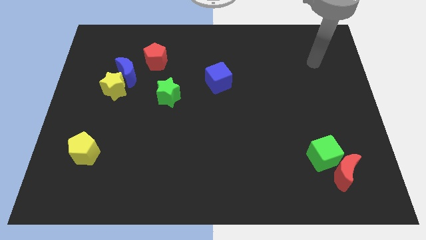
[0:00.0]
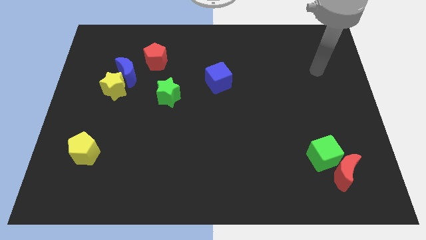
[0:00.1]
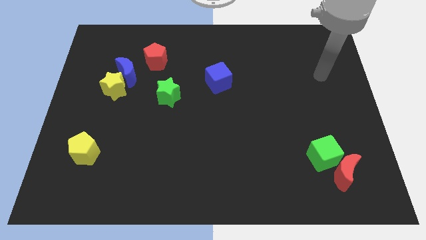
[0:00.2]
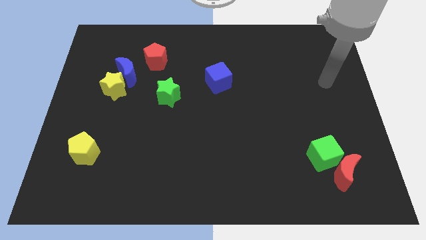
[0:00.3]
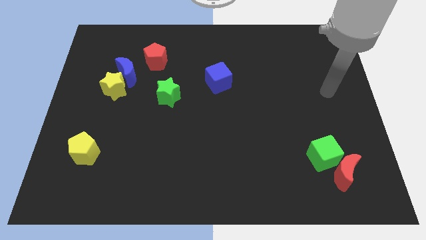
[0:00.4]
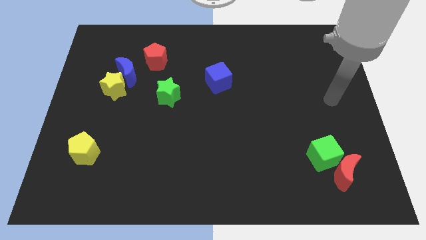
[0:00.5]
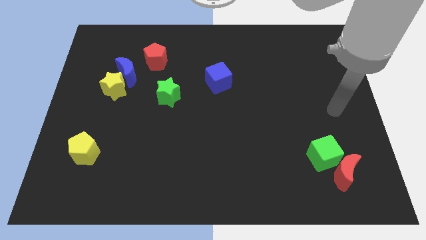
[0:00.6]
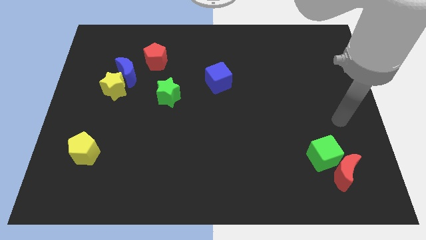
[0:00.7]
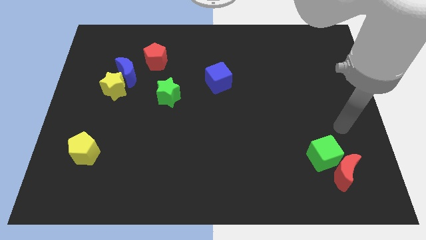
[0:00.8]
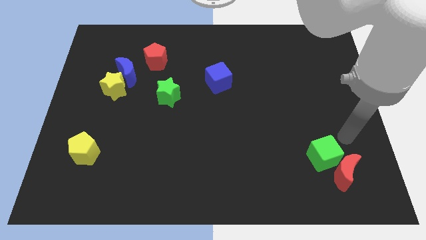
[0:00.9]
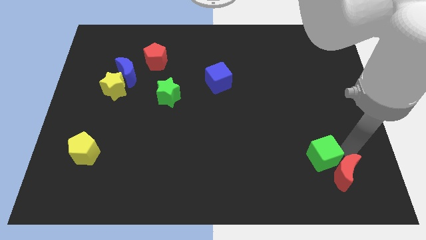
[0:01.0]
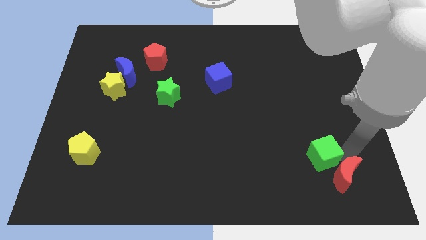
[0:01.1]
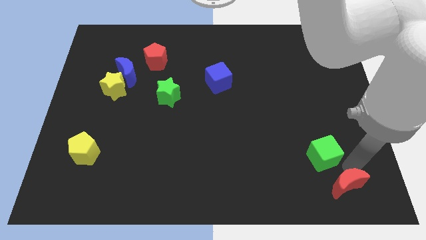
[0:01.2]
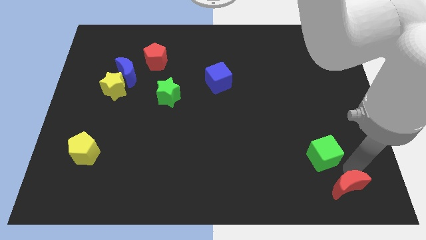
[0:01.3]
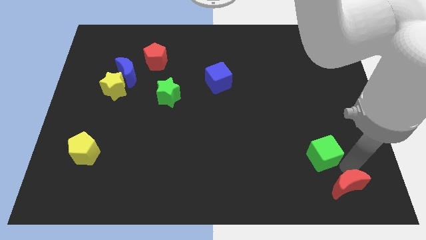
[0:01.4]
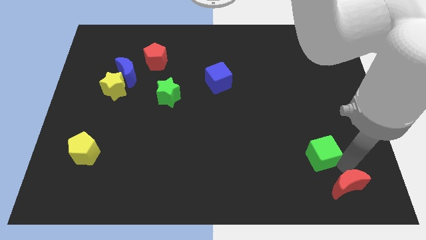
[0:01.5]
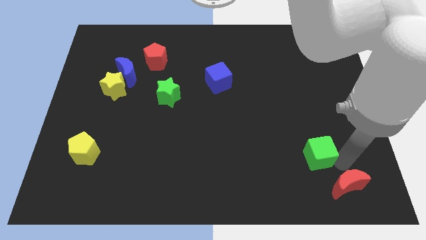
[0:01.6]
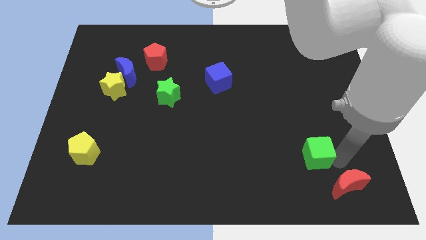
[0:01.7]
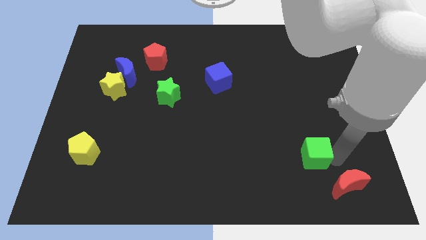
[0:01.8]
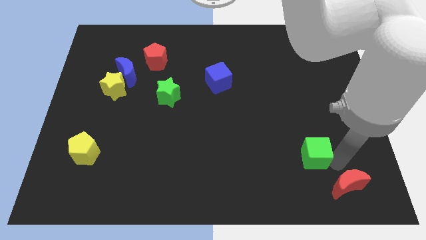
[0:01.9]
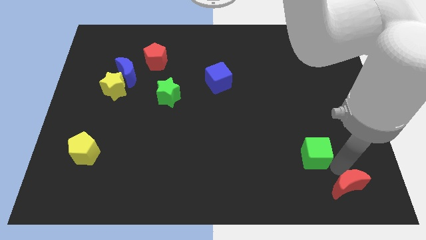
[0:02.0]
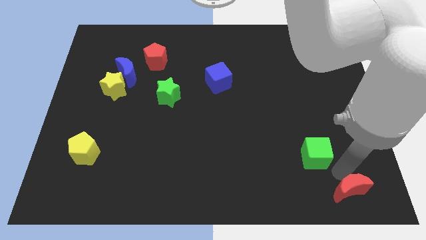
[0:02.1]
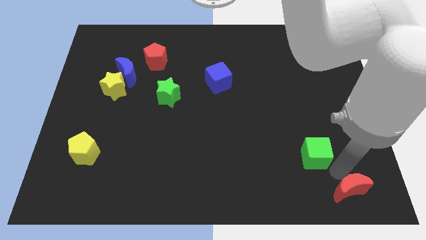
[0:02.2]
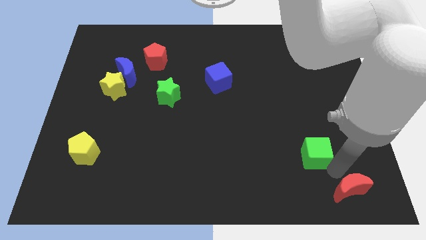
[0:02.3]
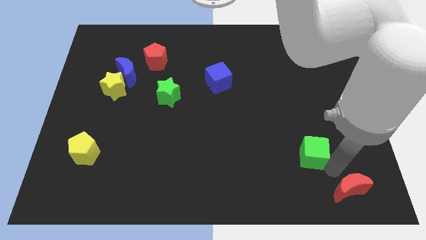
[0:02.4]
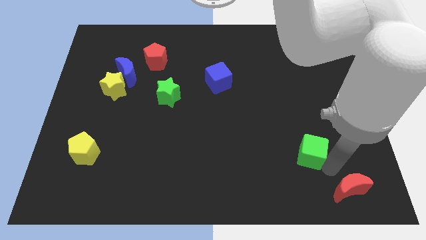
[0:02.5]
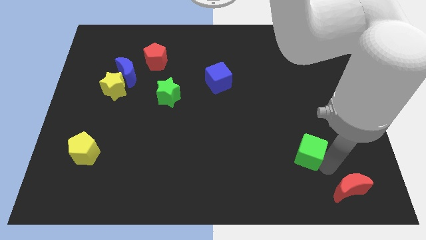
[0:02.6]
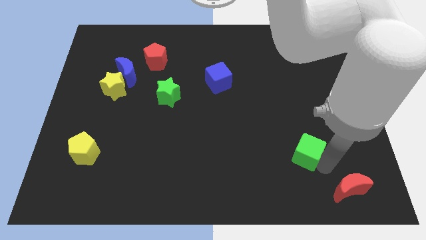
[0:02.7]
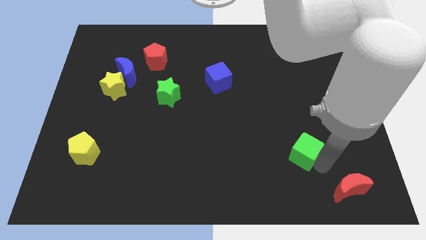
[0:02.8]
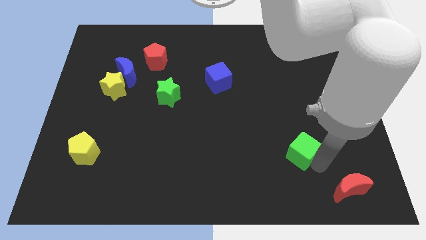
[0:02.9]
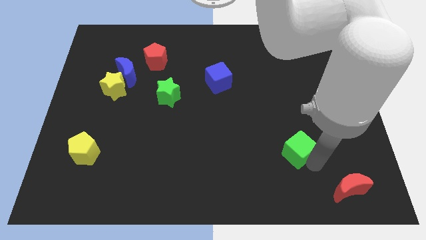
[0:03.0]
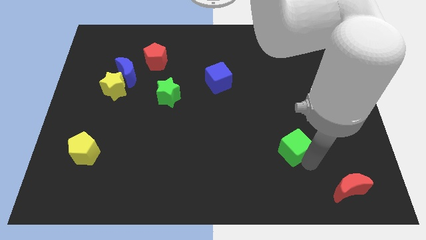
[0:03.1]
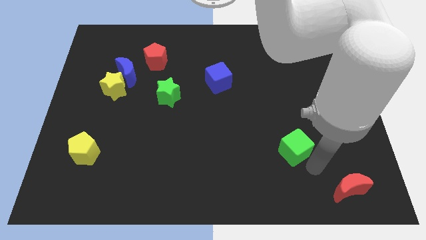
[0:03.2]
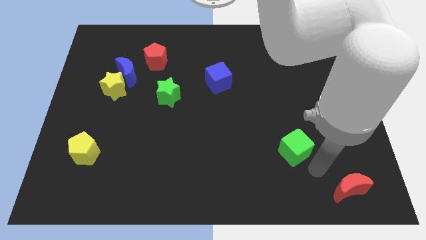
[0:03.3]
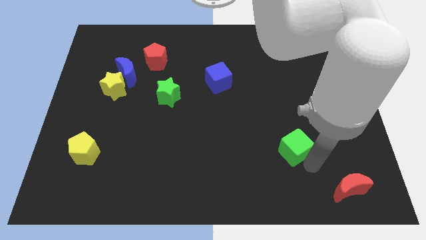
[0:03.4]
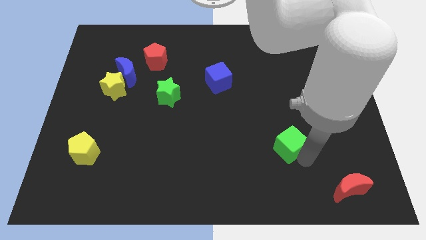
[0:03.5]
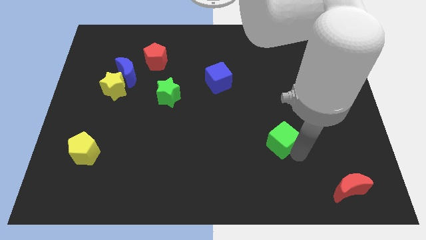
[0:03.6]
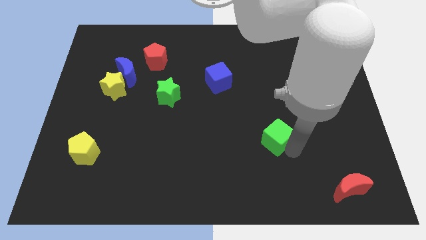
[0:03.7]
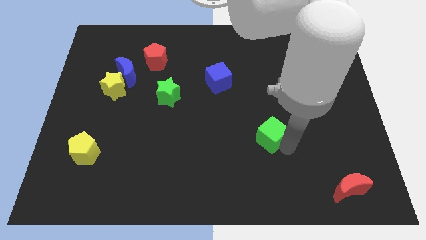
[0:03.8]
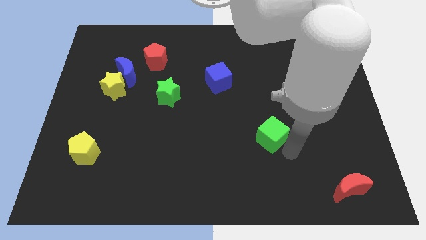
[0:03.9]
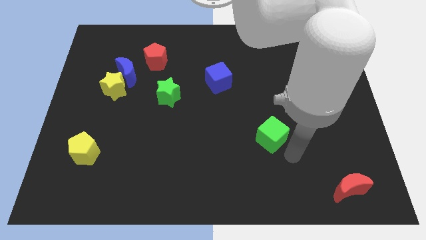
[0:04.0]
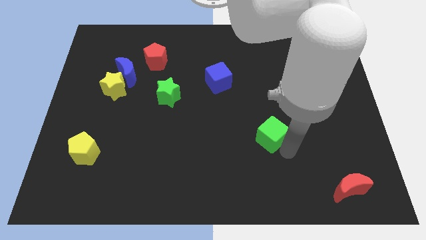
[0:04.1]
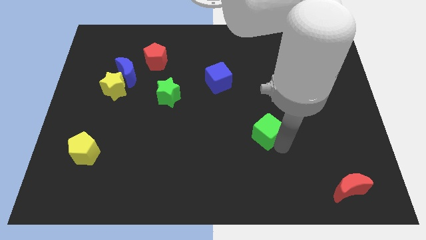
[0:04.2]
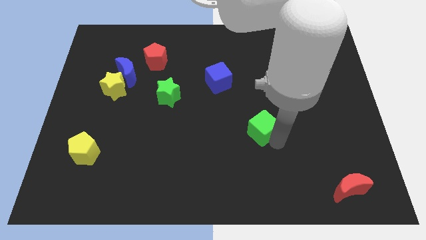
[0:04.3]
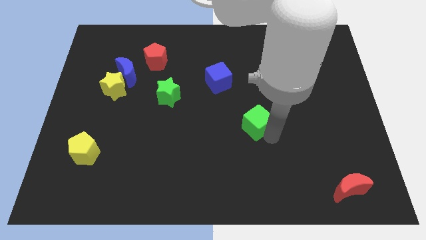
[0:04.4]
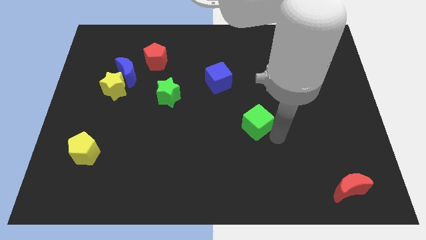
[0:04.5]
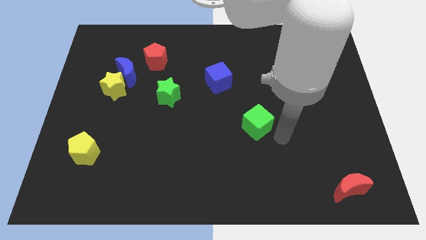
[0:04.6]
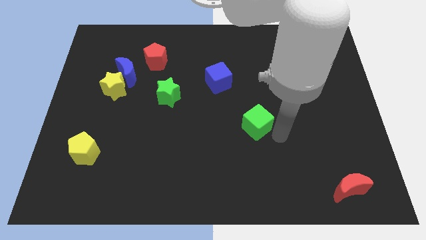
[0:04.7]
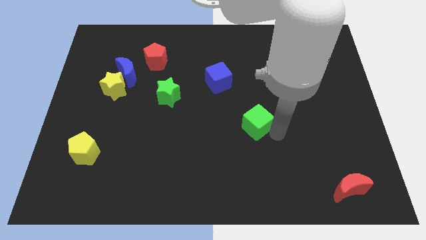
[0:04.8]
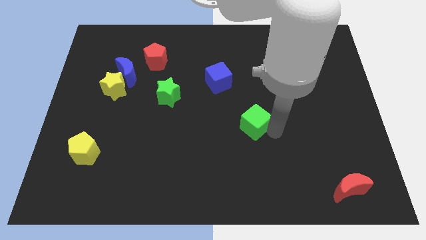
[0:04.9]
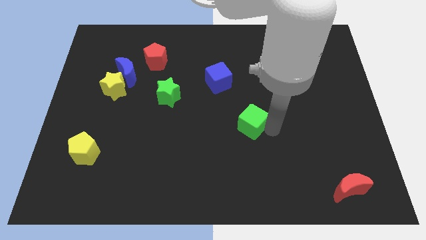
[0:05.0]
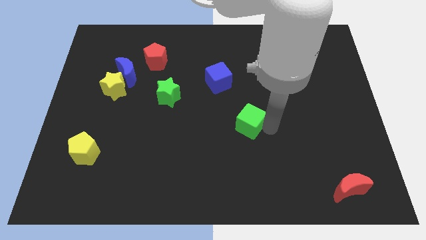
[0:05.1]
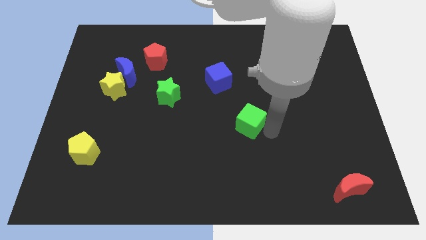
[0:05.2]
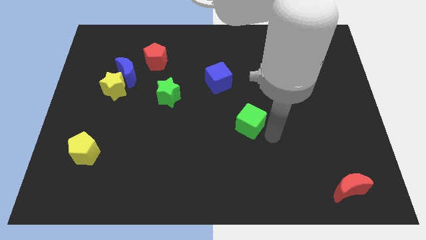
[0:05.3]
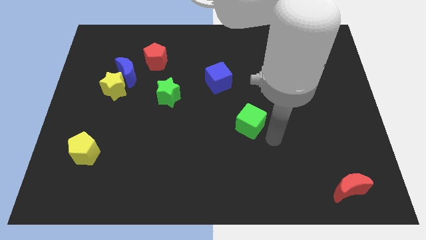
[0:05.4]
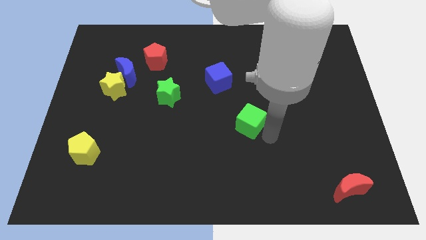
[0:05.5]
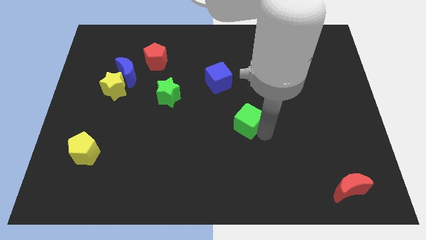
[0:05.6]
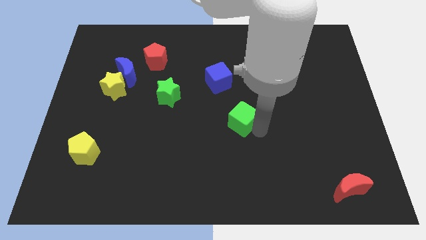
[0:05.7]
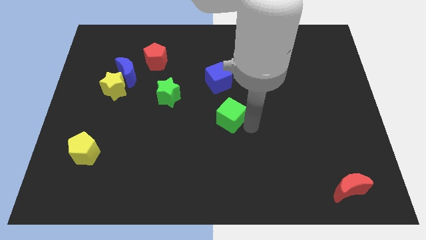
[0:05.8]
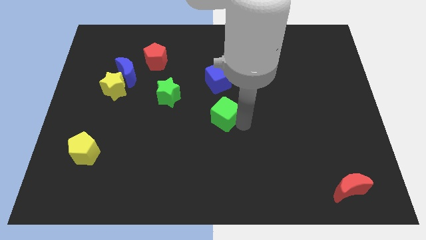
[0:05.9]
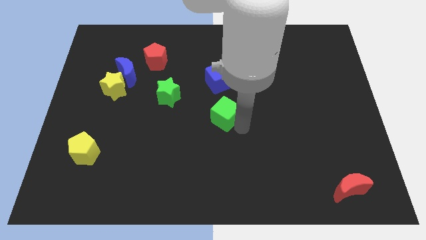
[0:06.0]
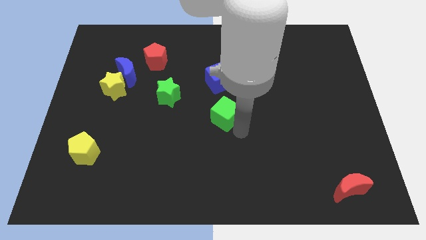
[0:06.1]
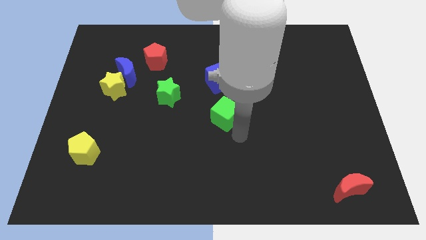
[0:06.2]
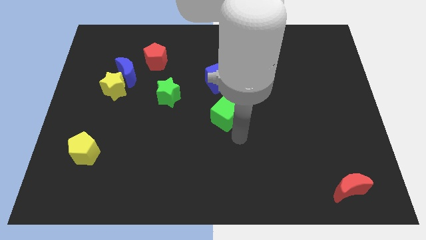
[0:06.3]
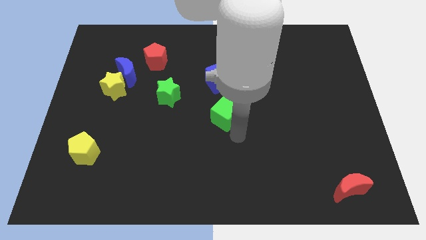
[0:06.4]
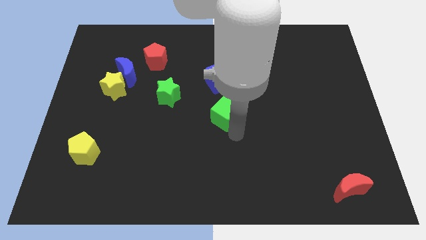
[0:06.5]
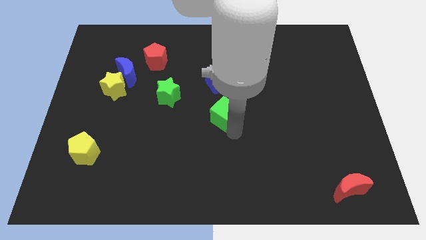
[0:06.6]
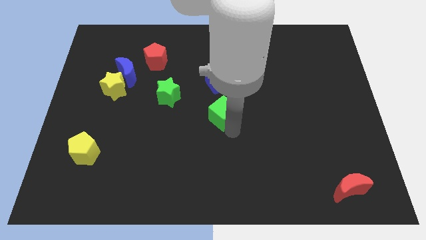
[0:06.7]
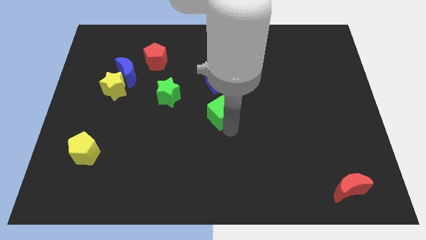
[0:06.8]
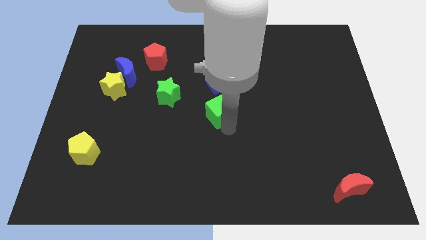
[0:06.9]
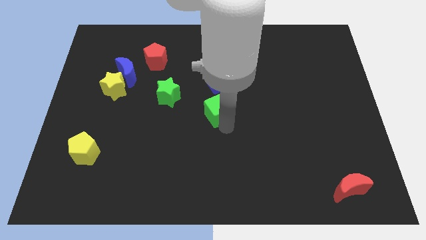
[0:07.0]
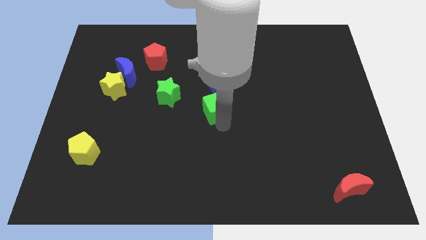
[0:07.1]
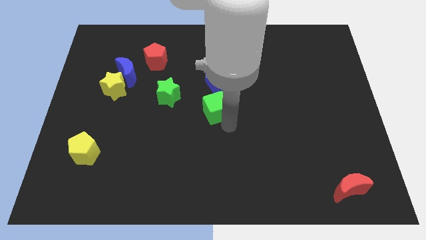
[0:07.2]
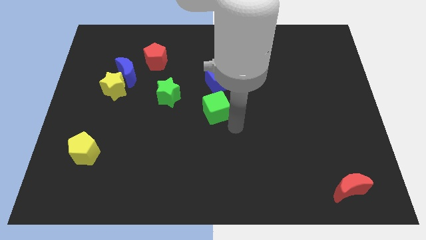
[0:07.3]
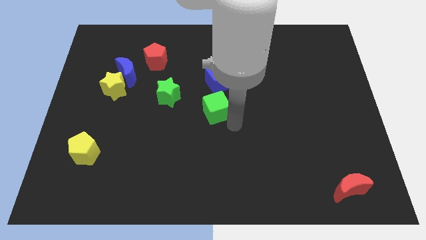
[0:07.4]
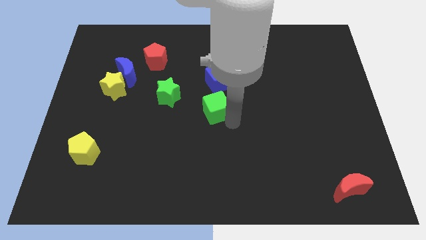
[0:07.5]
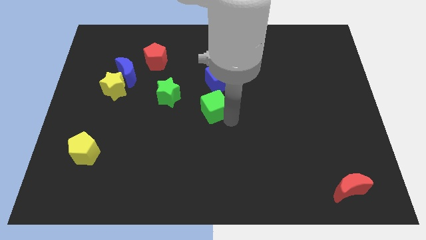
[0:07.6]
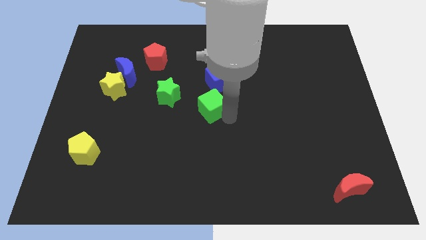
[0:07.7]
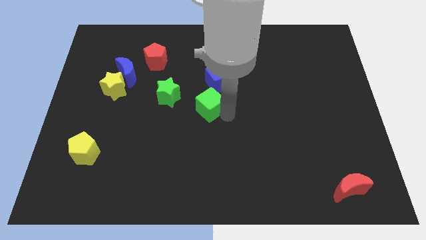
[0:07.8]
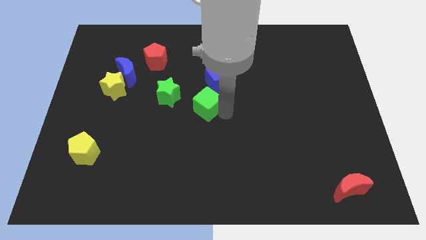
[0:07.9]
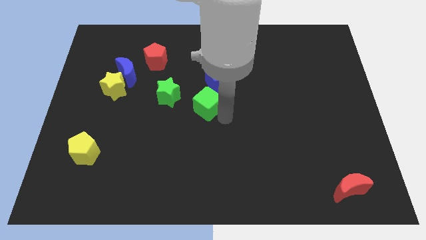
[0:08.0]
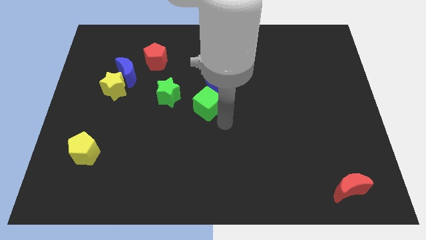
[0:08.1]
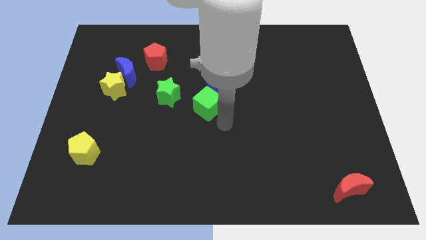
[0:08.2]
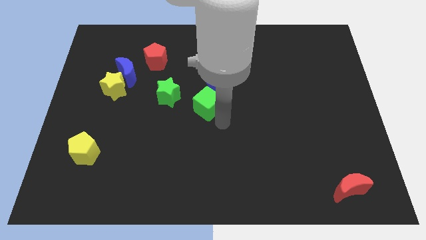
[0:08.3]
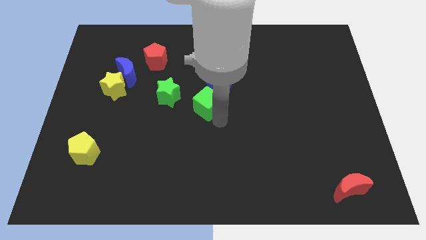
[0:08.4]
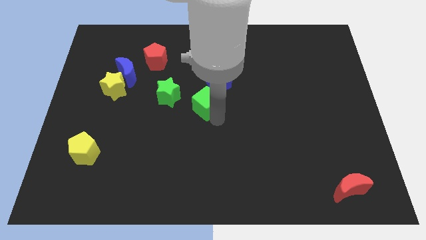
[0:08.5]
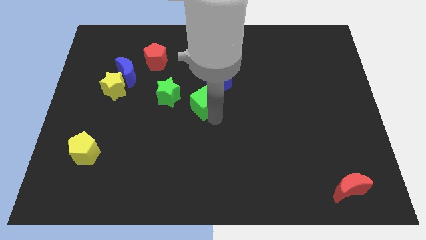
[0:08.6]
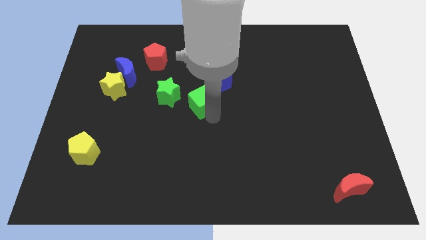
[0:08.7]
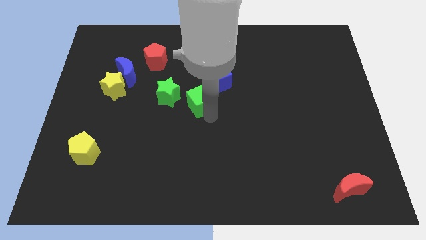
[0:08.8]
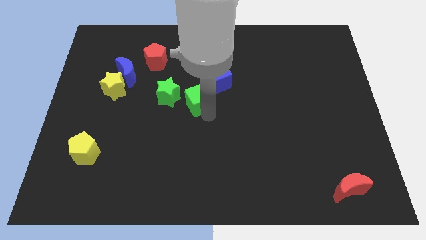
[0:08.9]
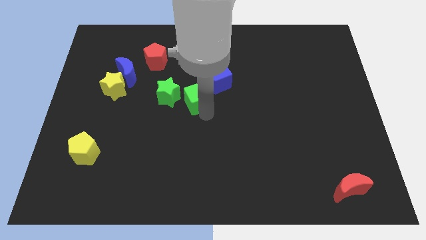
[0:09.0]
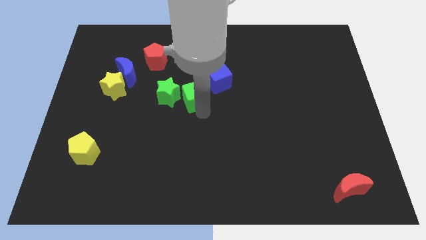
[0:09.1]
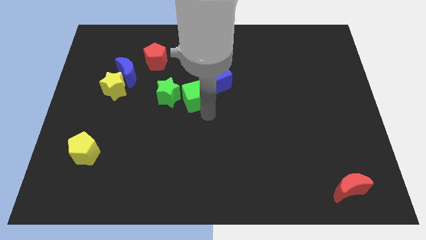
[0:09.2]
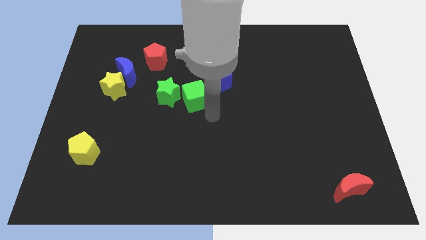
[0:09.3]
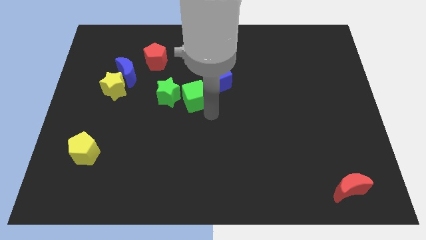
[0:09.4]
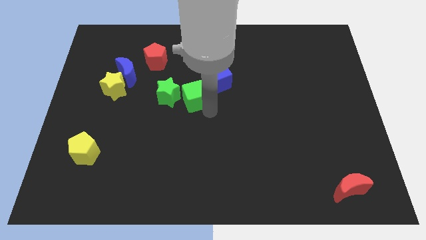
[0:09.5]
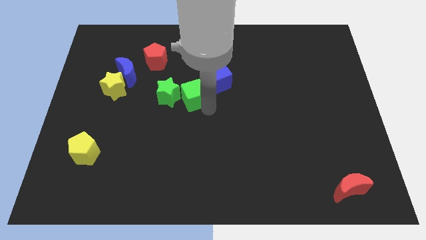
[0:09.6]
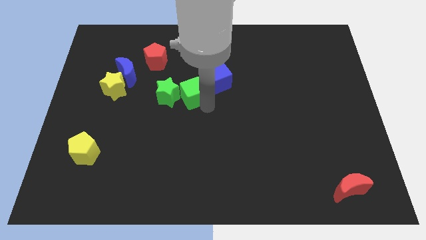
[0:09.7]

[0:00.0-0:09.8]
put the green cube to the left of the blue cube
